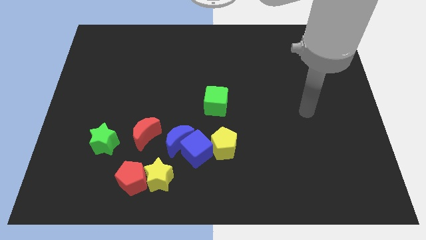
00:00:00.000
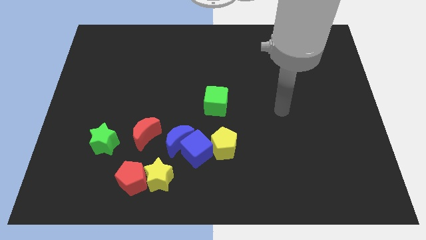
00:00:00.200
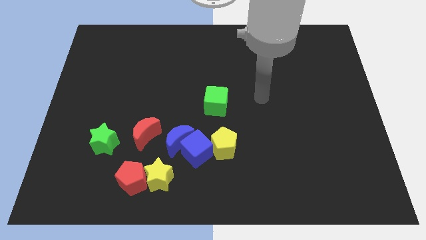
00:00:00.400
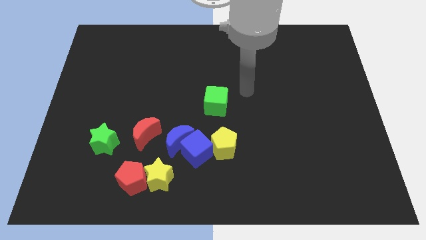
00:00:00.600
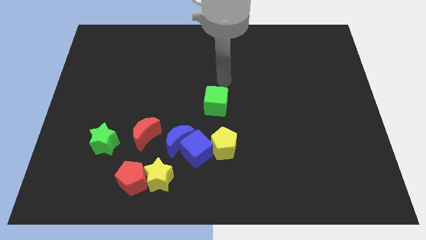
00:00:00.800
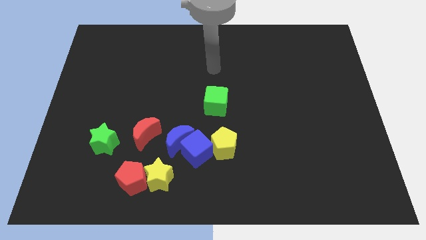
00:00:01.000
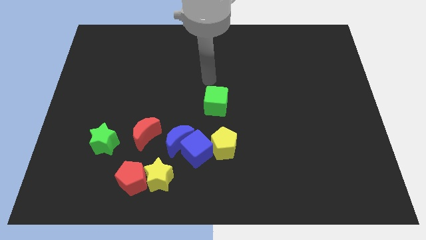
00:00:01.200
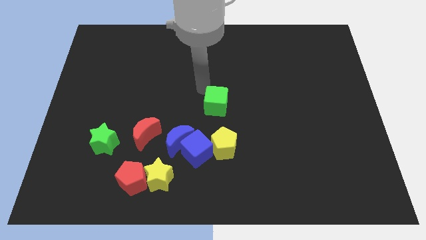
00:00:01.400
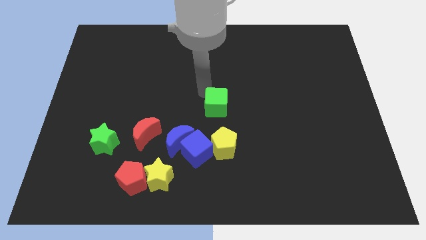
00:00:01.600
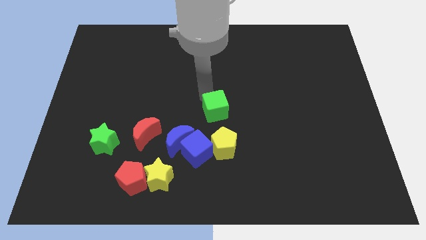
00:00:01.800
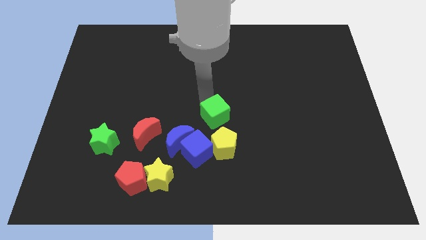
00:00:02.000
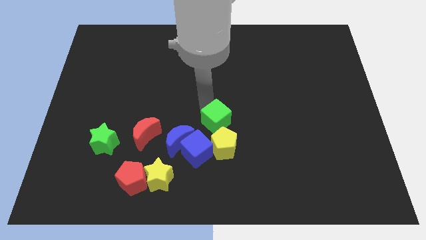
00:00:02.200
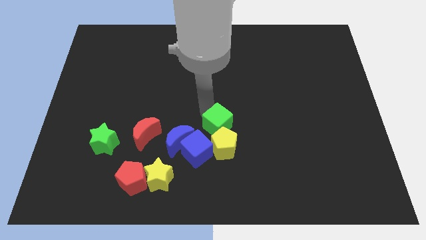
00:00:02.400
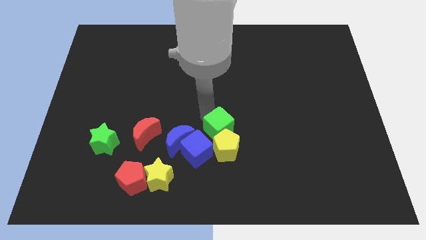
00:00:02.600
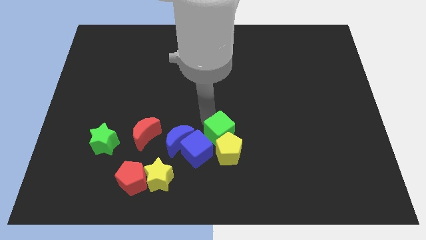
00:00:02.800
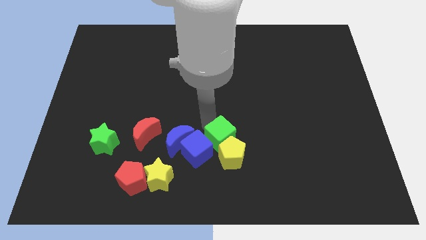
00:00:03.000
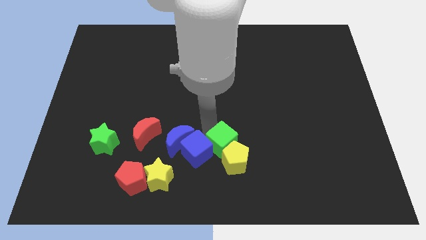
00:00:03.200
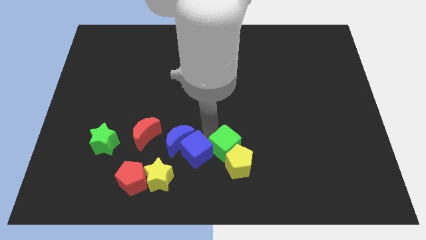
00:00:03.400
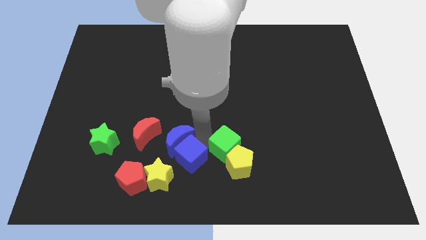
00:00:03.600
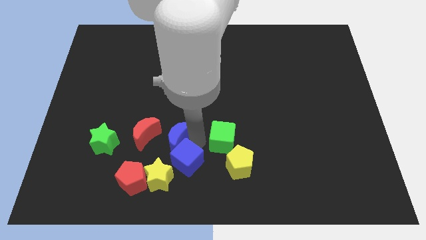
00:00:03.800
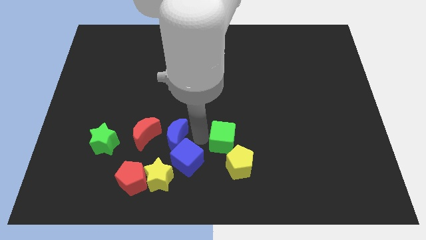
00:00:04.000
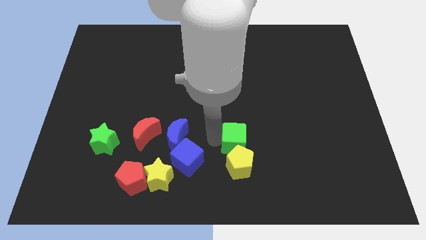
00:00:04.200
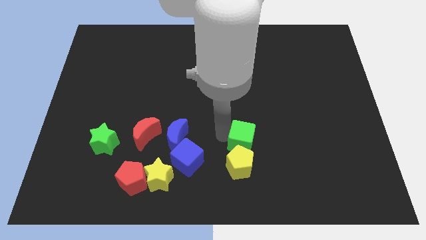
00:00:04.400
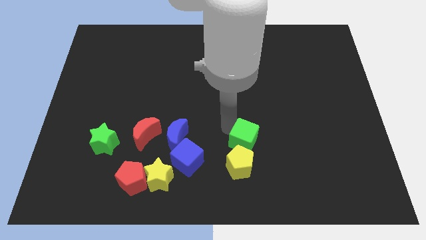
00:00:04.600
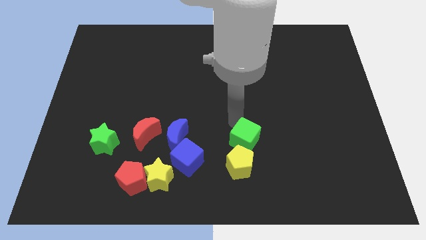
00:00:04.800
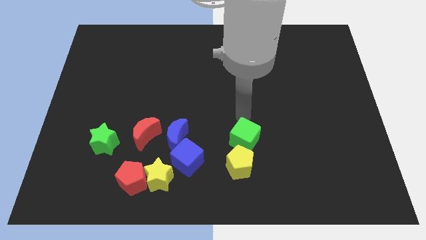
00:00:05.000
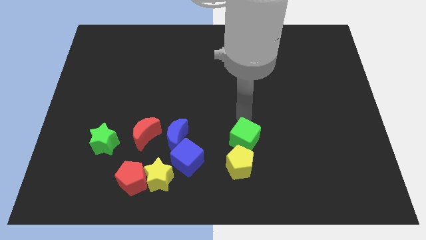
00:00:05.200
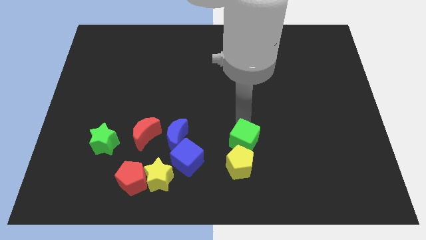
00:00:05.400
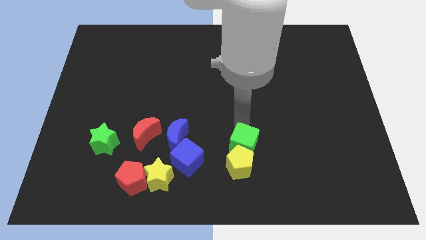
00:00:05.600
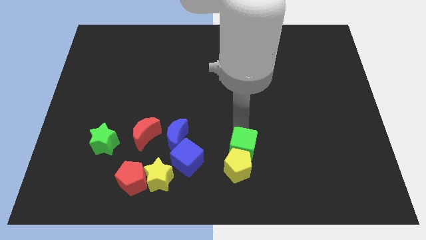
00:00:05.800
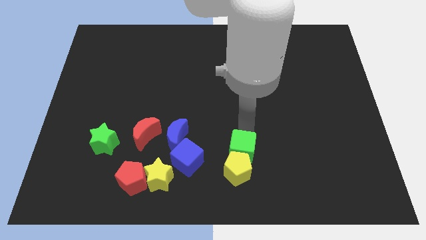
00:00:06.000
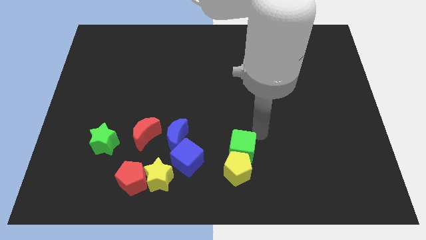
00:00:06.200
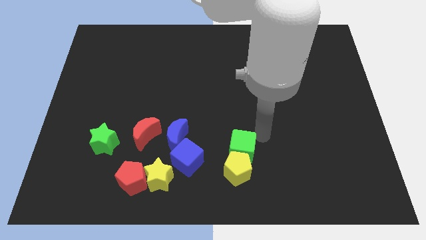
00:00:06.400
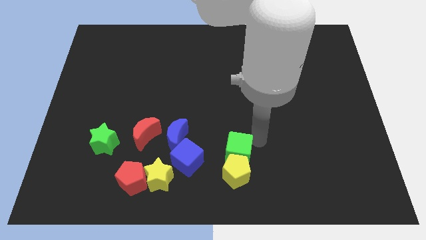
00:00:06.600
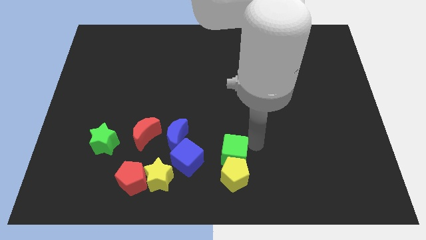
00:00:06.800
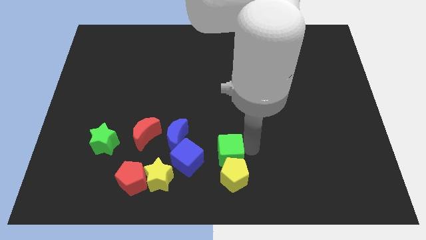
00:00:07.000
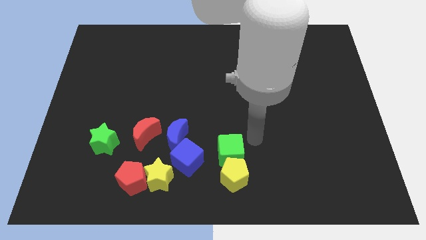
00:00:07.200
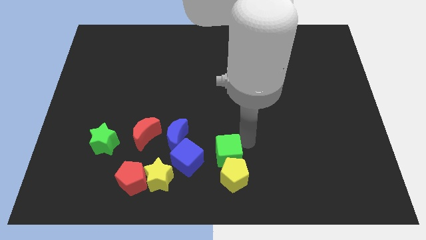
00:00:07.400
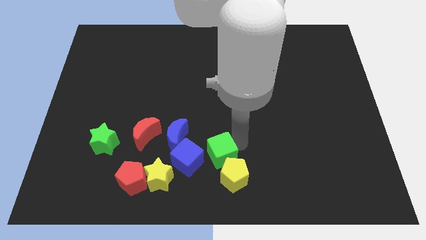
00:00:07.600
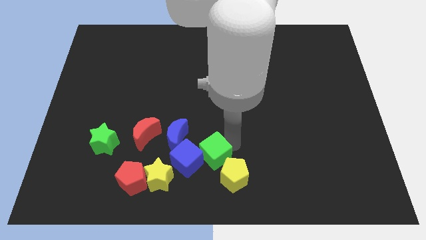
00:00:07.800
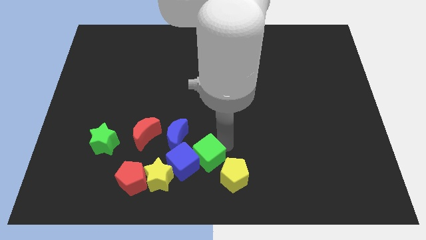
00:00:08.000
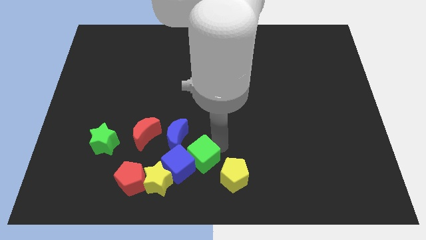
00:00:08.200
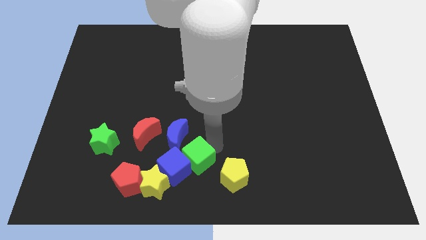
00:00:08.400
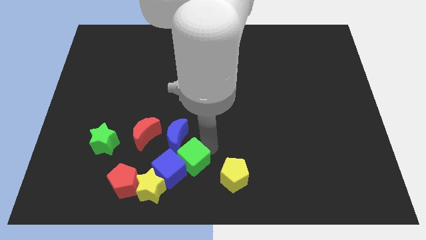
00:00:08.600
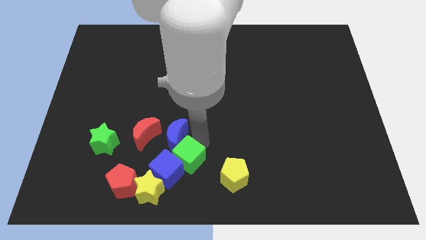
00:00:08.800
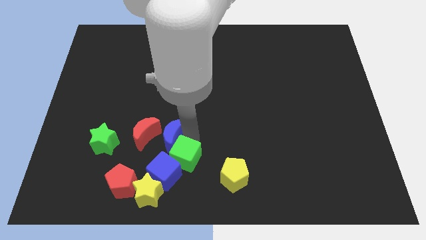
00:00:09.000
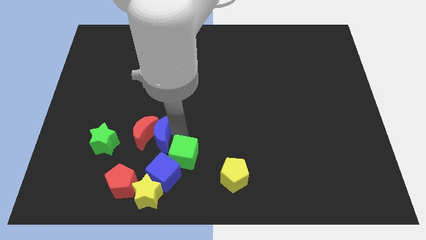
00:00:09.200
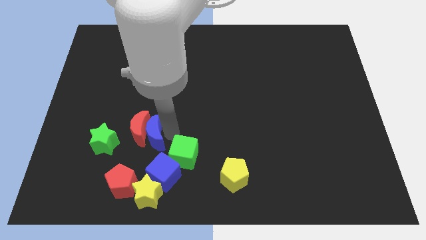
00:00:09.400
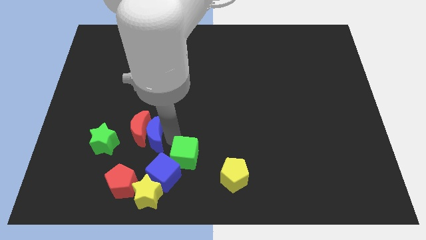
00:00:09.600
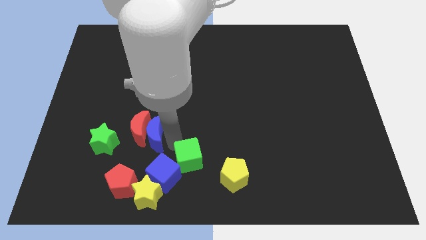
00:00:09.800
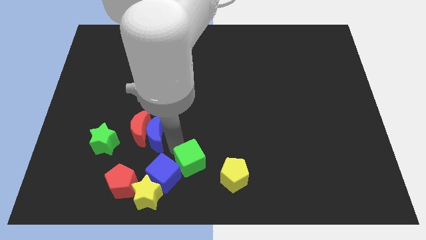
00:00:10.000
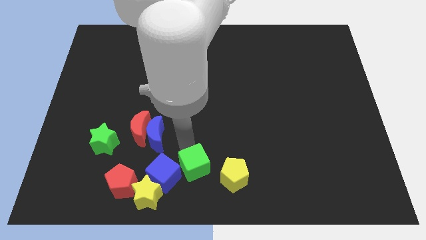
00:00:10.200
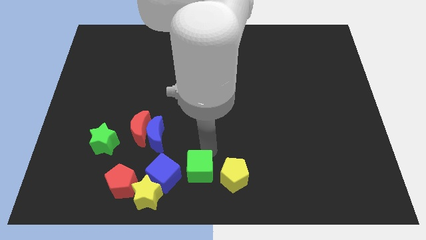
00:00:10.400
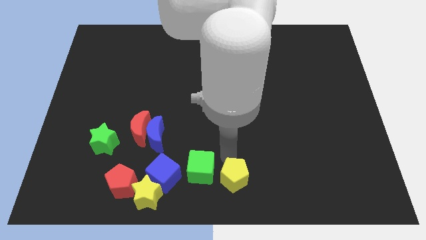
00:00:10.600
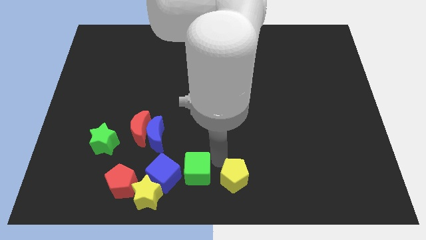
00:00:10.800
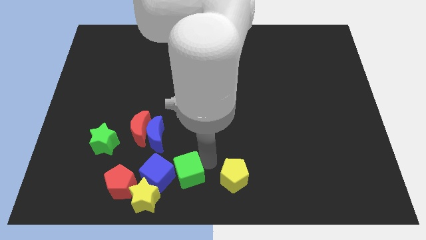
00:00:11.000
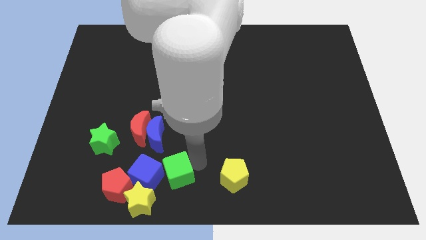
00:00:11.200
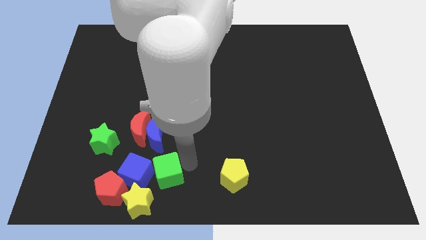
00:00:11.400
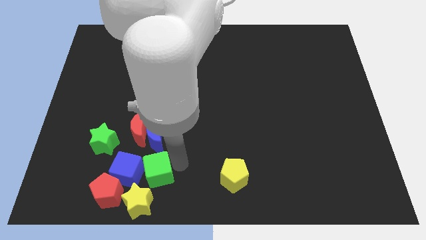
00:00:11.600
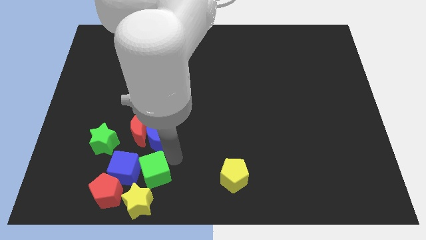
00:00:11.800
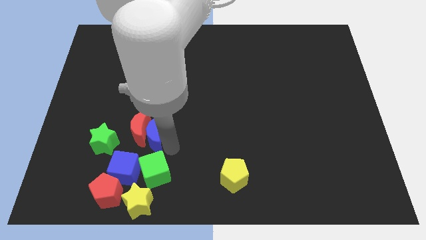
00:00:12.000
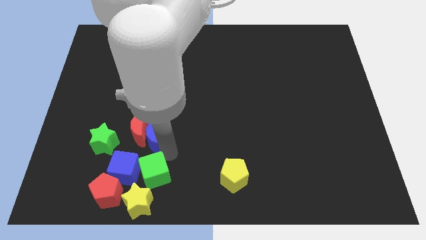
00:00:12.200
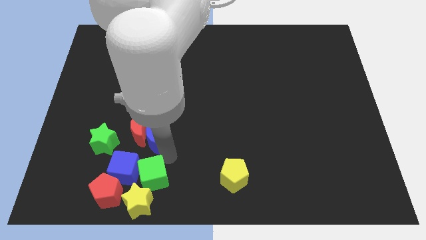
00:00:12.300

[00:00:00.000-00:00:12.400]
slide the green cube to the yellow star

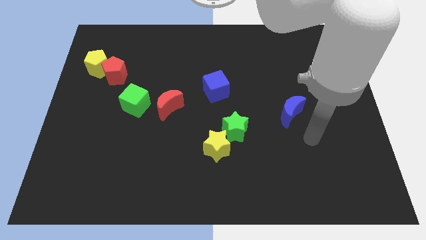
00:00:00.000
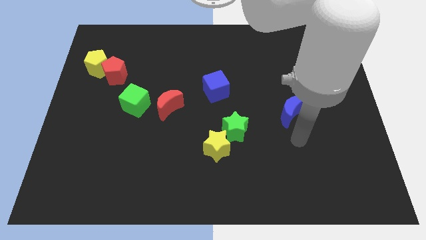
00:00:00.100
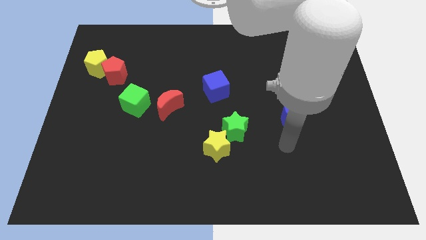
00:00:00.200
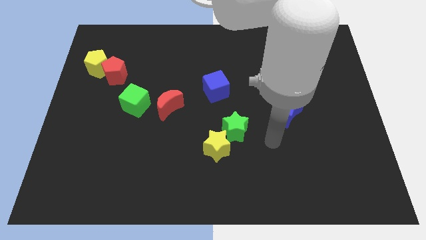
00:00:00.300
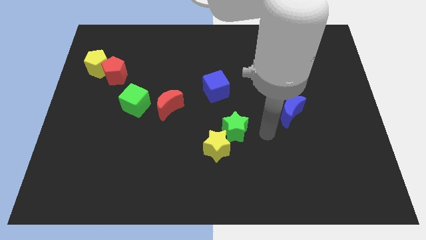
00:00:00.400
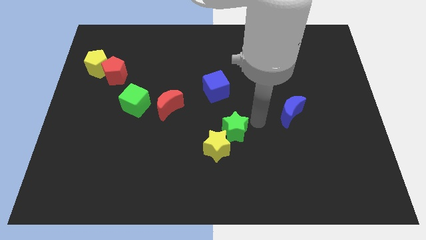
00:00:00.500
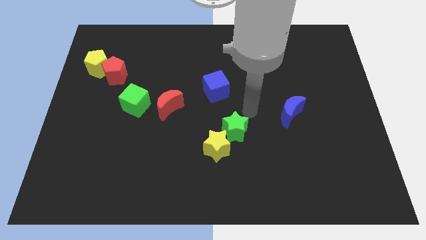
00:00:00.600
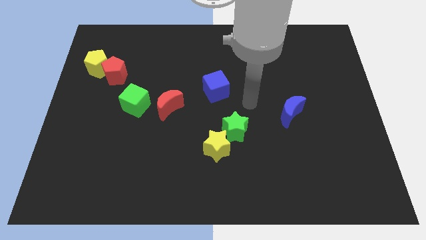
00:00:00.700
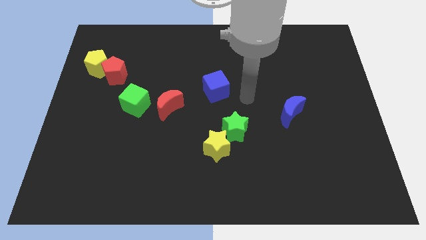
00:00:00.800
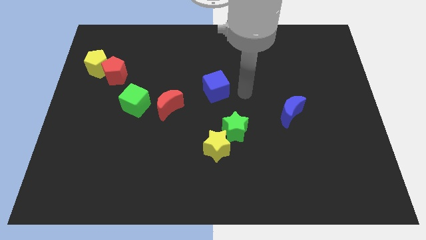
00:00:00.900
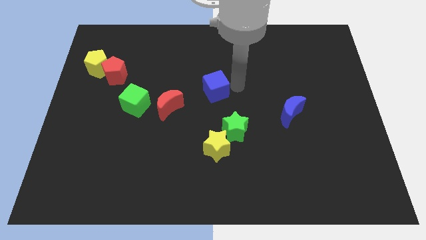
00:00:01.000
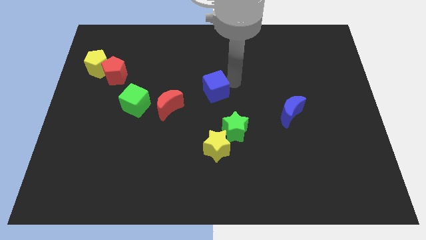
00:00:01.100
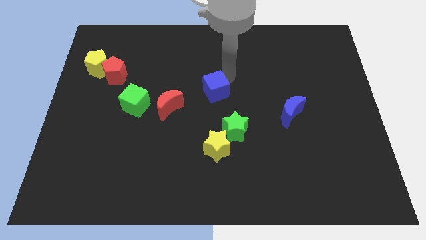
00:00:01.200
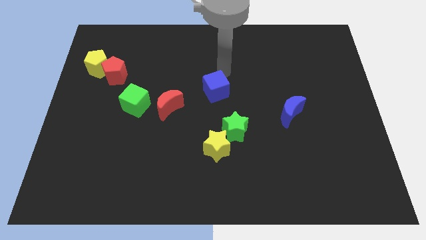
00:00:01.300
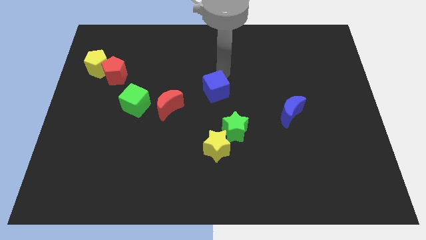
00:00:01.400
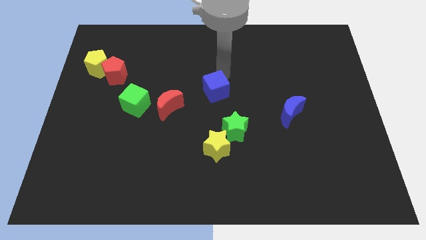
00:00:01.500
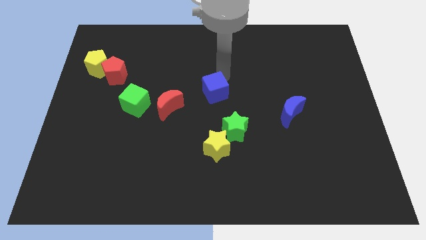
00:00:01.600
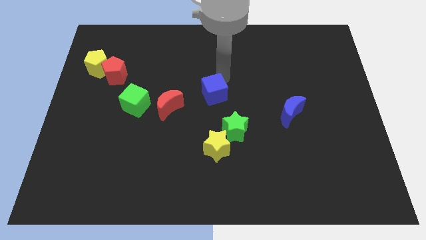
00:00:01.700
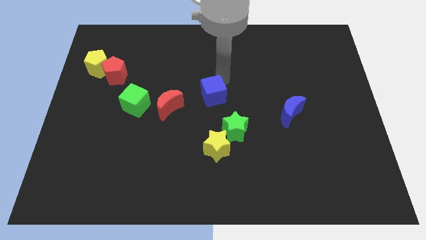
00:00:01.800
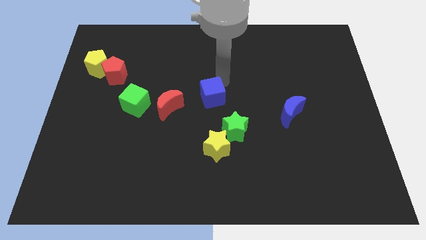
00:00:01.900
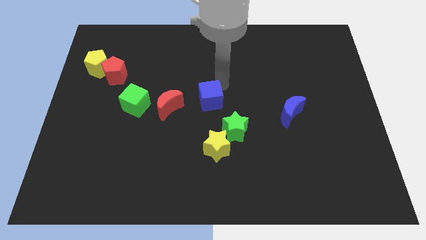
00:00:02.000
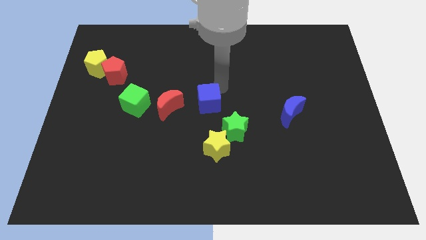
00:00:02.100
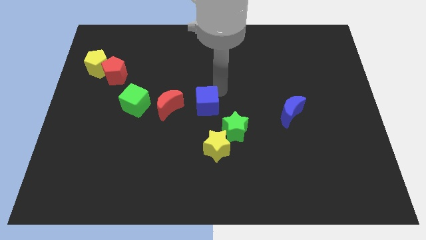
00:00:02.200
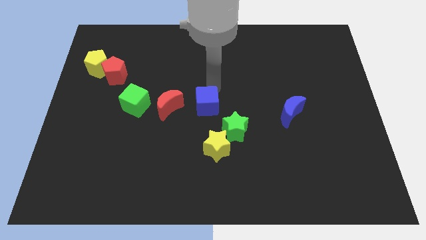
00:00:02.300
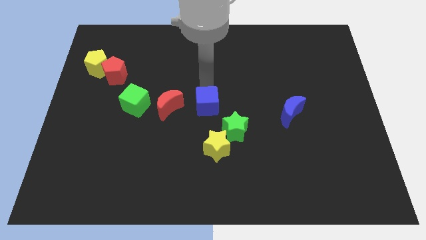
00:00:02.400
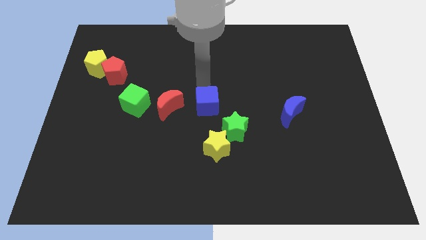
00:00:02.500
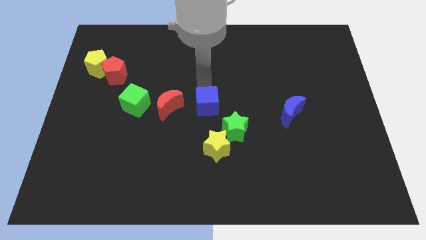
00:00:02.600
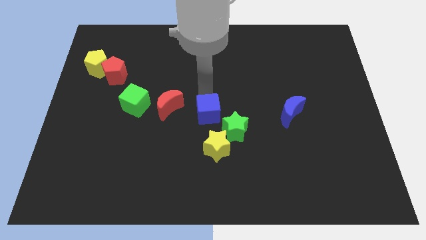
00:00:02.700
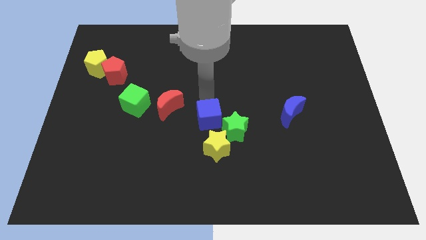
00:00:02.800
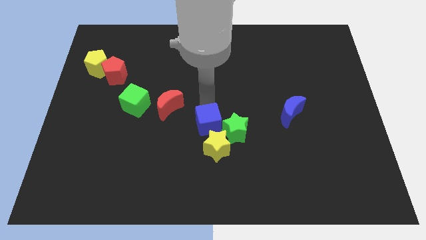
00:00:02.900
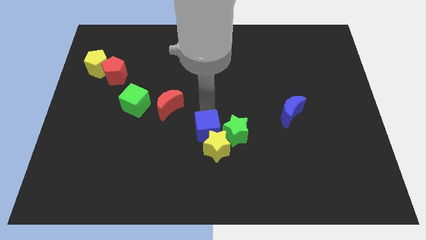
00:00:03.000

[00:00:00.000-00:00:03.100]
put the blue cube next to the yellow star
